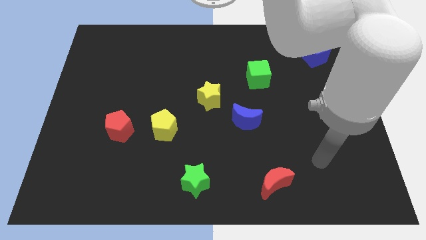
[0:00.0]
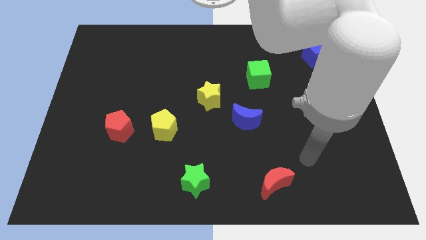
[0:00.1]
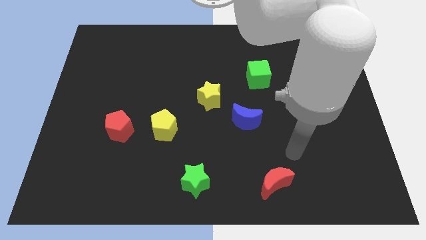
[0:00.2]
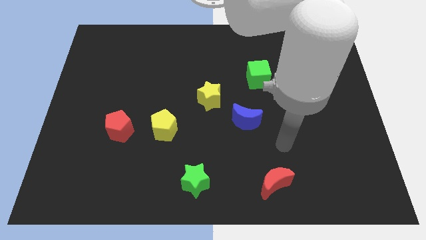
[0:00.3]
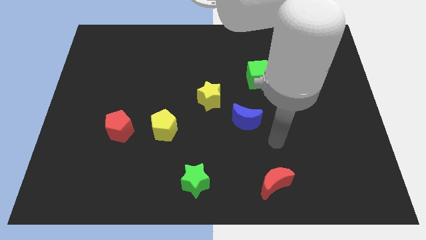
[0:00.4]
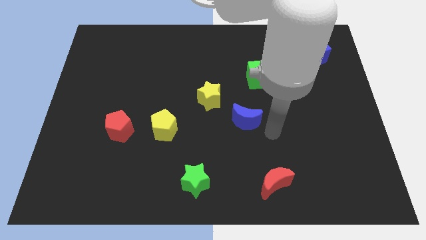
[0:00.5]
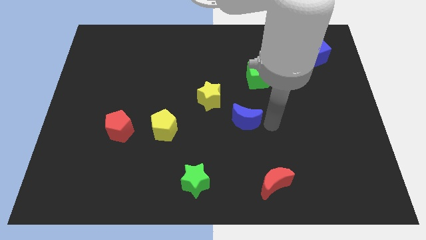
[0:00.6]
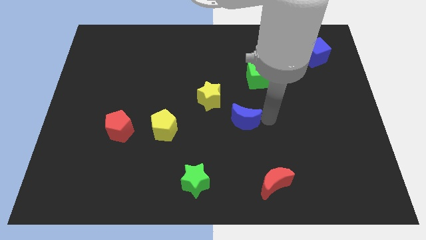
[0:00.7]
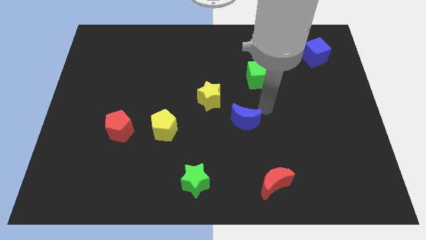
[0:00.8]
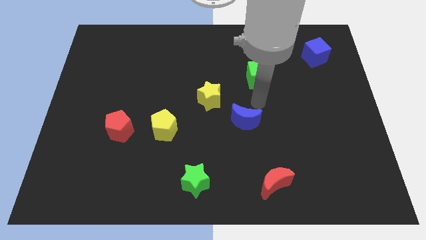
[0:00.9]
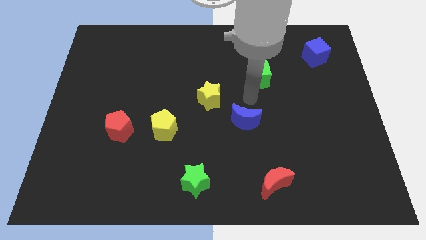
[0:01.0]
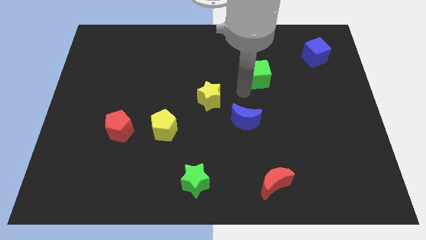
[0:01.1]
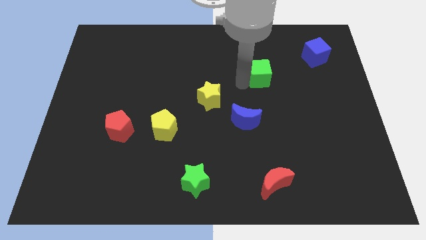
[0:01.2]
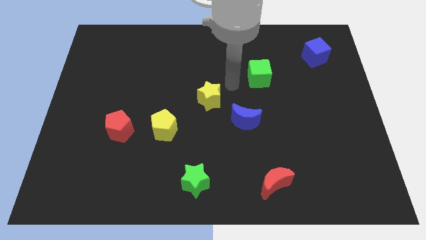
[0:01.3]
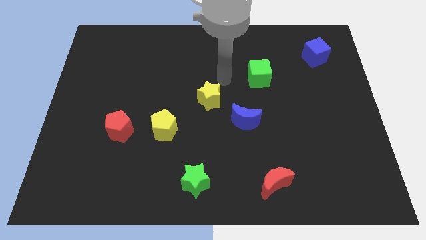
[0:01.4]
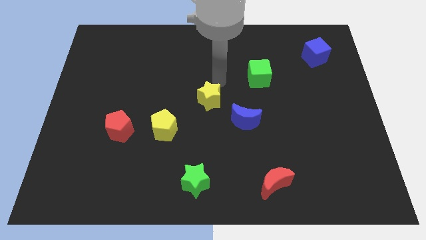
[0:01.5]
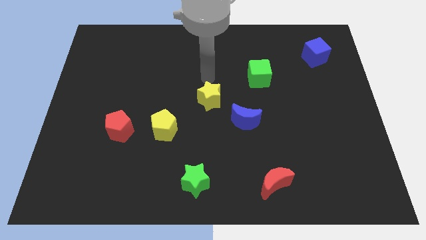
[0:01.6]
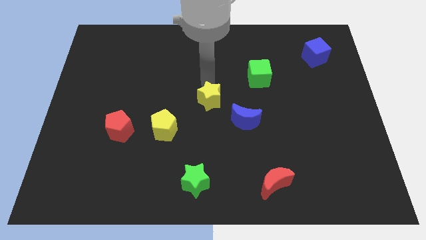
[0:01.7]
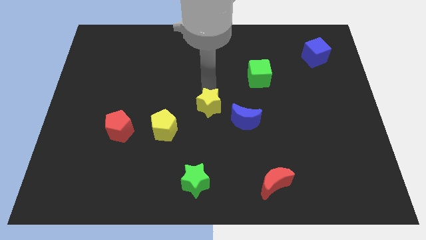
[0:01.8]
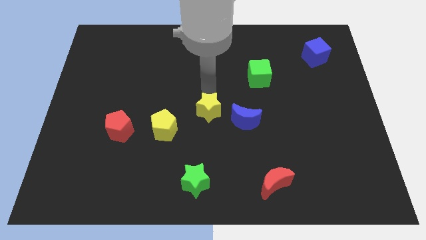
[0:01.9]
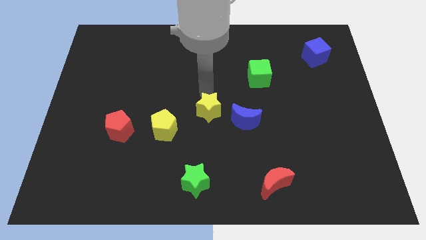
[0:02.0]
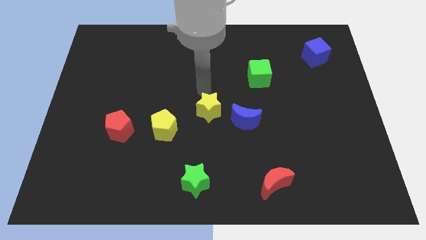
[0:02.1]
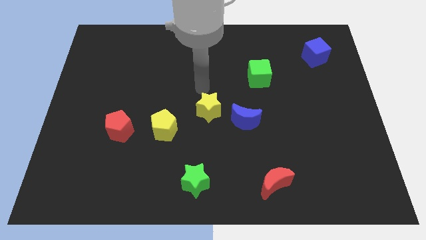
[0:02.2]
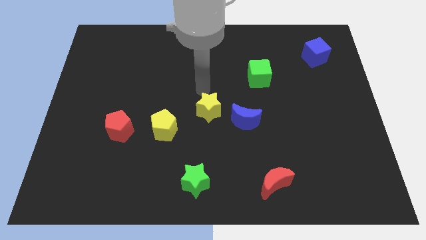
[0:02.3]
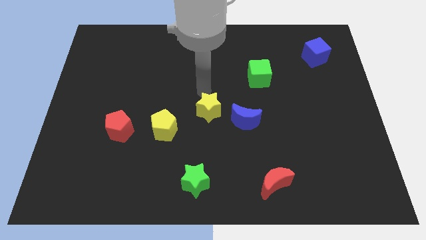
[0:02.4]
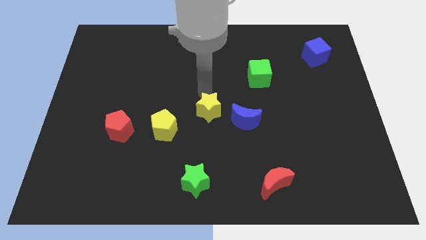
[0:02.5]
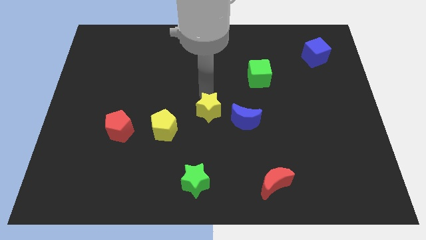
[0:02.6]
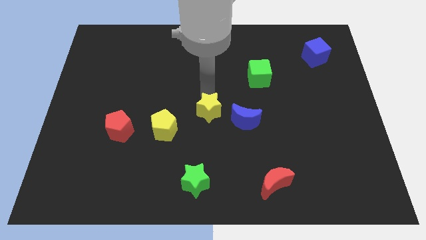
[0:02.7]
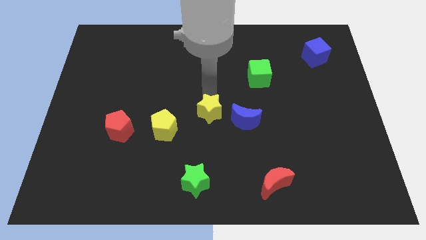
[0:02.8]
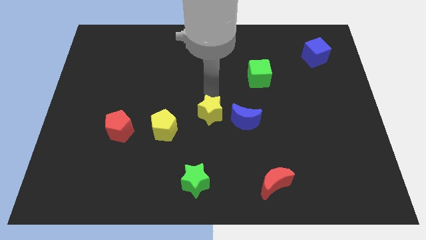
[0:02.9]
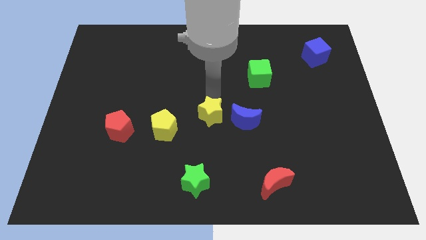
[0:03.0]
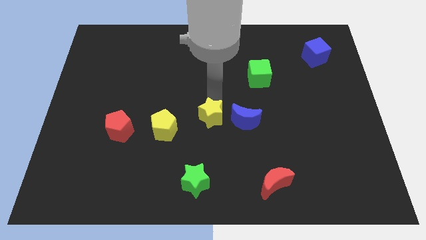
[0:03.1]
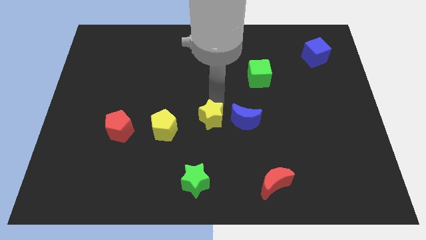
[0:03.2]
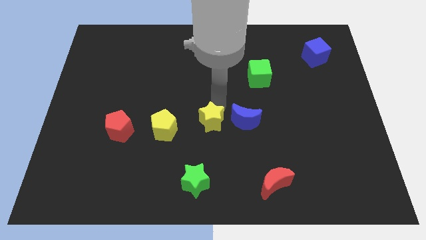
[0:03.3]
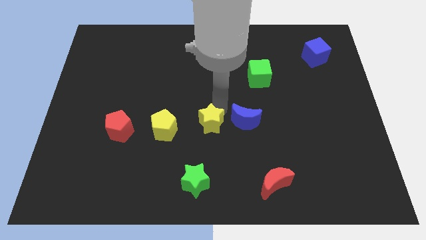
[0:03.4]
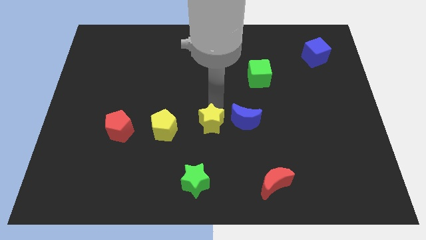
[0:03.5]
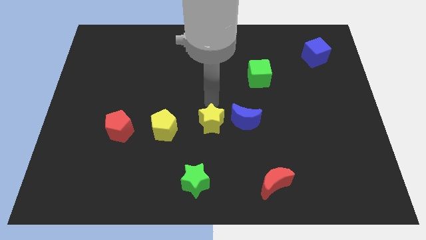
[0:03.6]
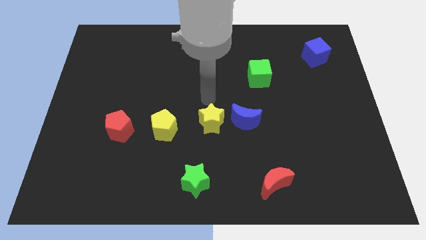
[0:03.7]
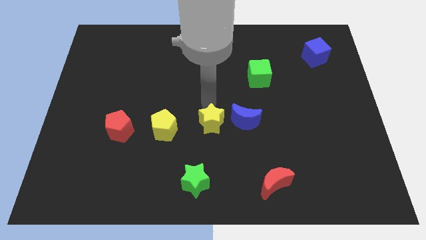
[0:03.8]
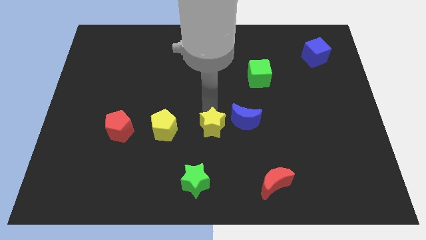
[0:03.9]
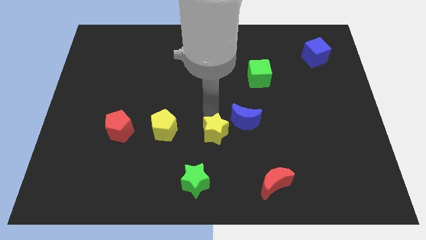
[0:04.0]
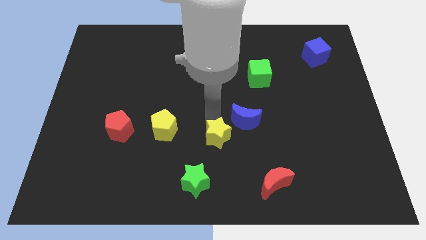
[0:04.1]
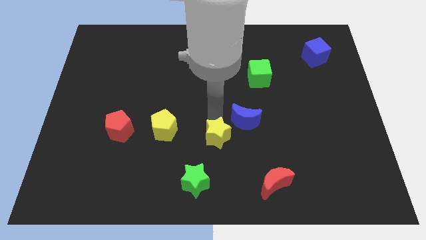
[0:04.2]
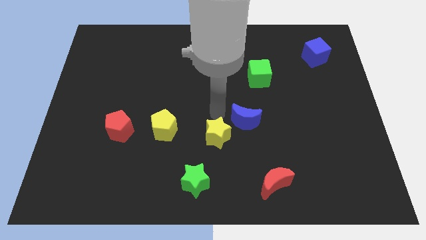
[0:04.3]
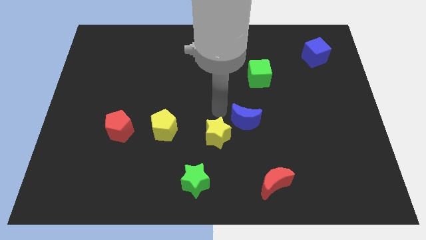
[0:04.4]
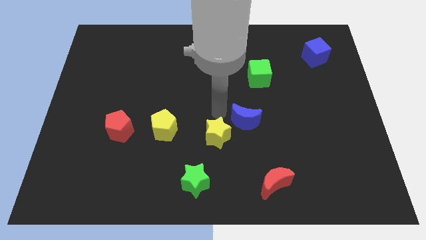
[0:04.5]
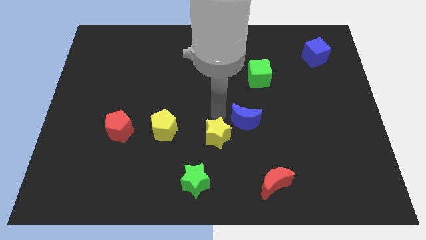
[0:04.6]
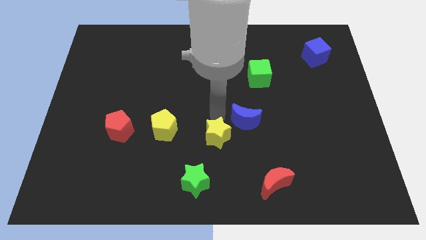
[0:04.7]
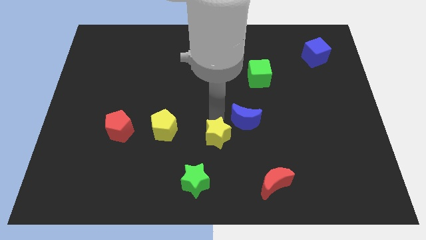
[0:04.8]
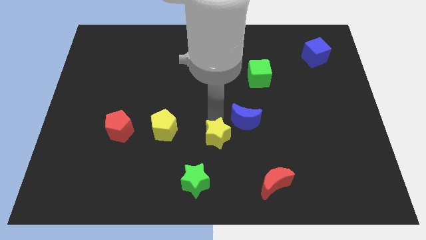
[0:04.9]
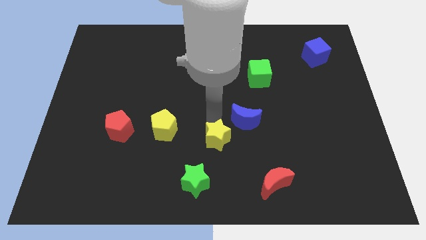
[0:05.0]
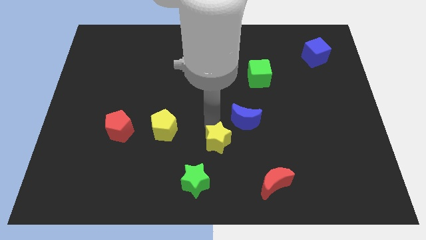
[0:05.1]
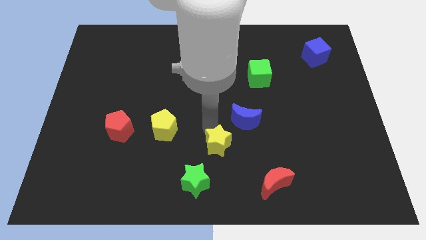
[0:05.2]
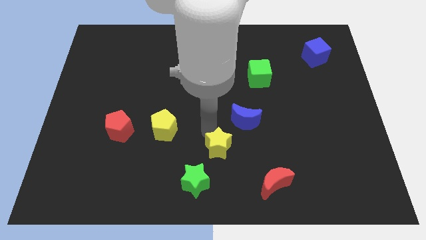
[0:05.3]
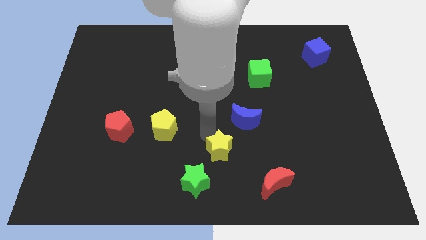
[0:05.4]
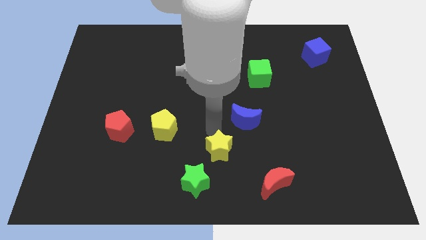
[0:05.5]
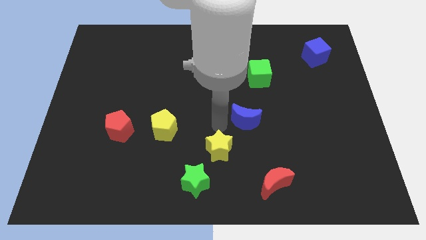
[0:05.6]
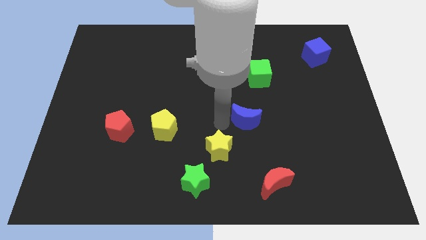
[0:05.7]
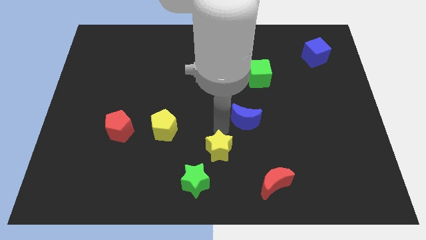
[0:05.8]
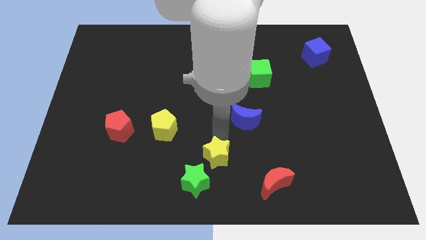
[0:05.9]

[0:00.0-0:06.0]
slide the yellow star to the bottom side
